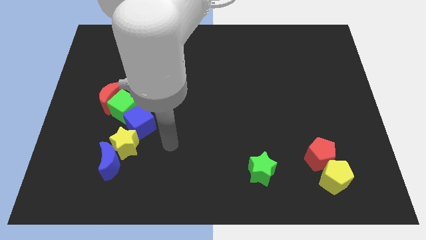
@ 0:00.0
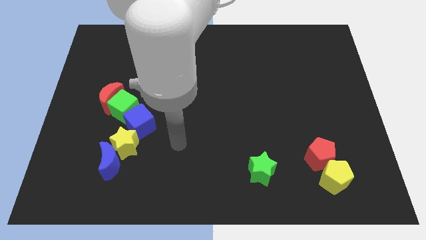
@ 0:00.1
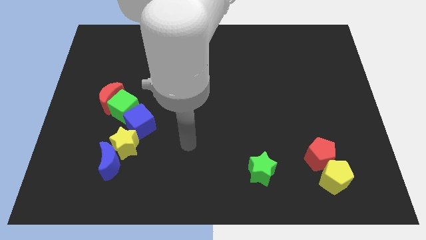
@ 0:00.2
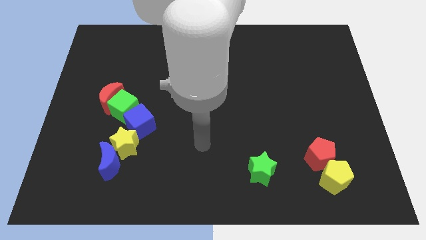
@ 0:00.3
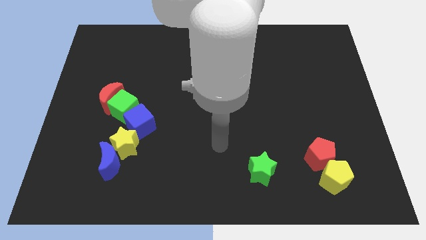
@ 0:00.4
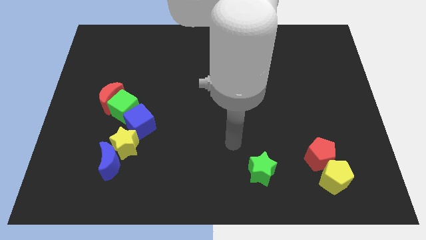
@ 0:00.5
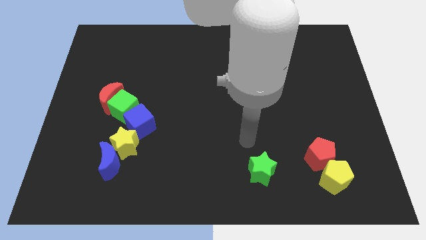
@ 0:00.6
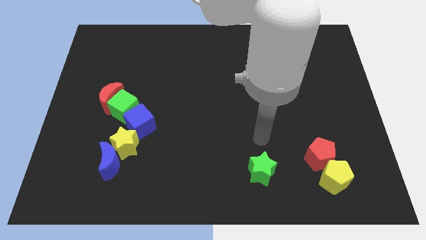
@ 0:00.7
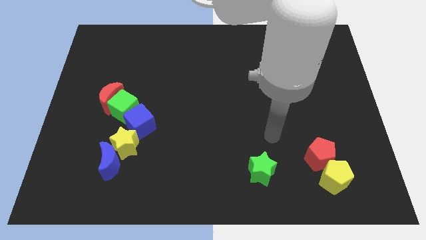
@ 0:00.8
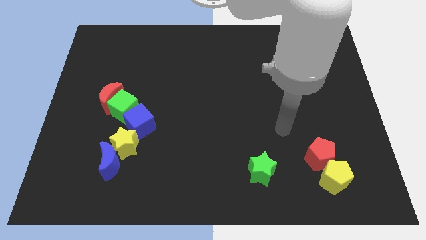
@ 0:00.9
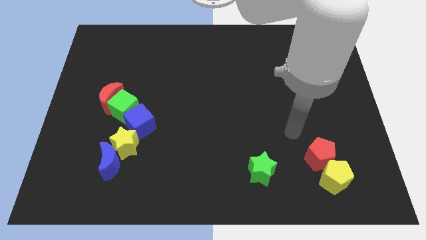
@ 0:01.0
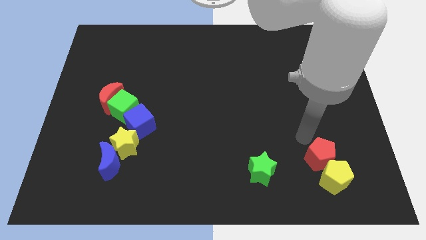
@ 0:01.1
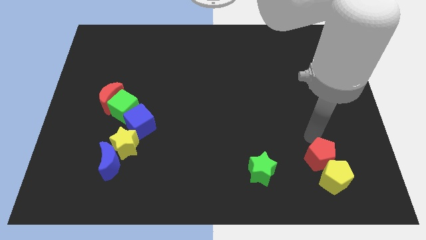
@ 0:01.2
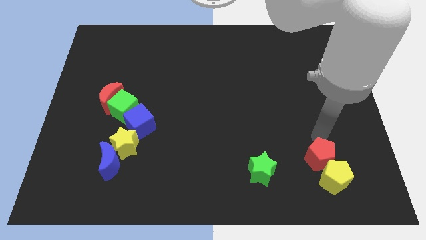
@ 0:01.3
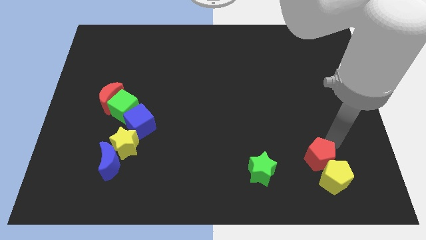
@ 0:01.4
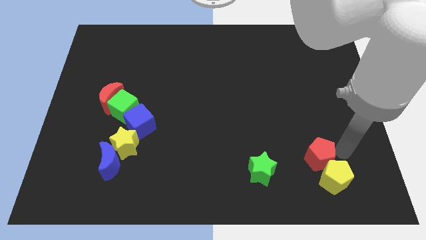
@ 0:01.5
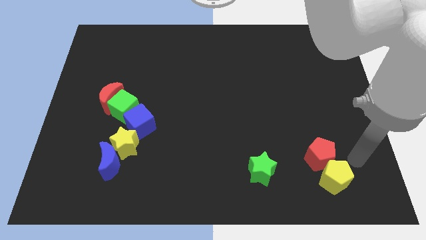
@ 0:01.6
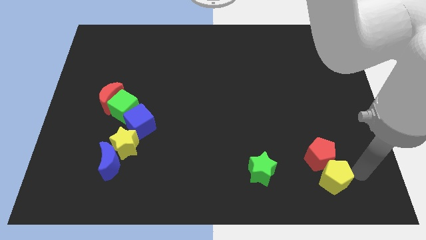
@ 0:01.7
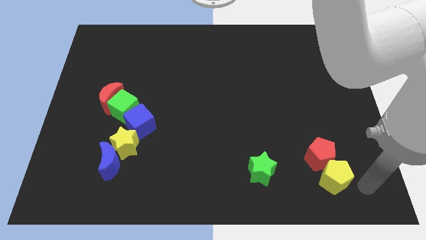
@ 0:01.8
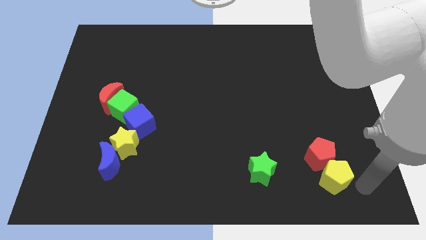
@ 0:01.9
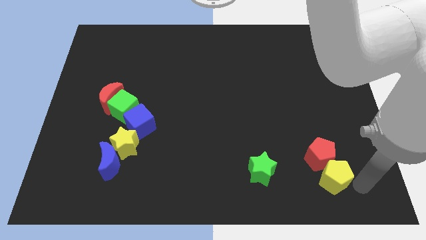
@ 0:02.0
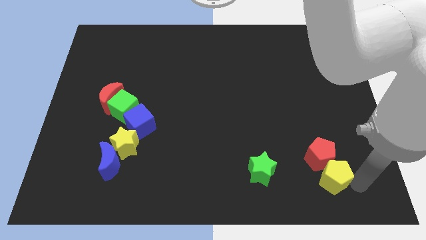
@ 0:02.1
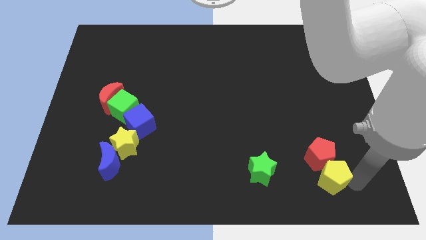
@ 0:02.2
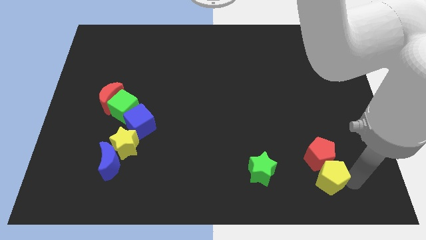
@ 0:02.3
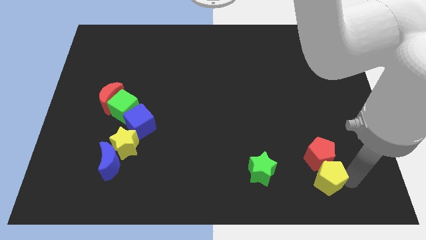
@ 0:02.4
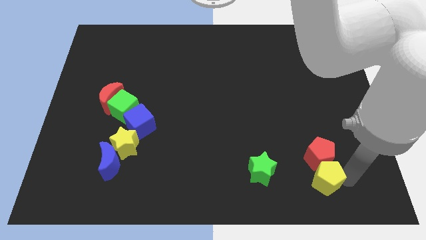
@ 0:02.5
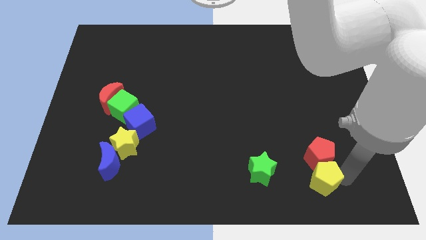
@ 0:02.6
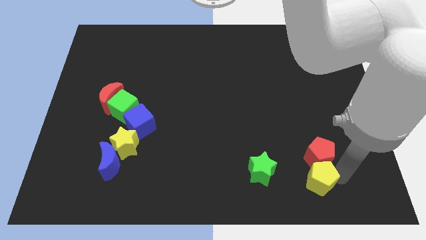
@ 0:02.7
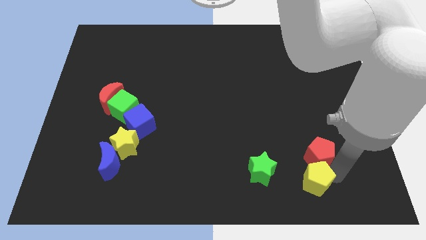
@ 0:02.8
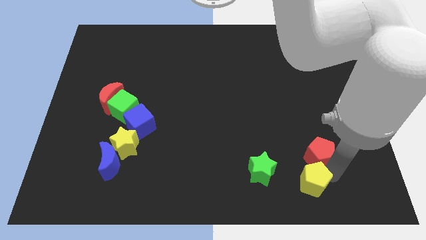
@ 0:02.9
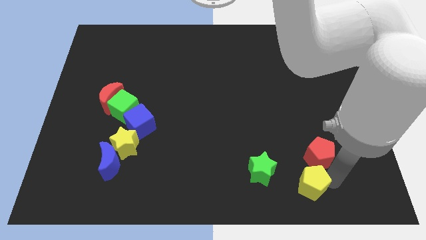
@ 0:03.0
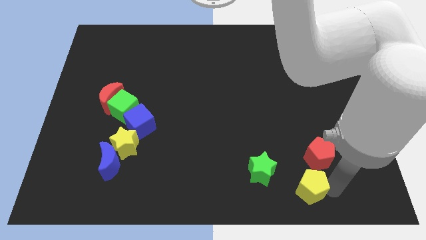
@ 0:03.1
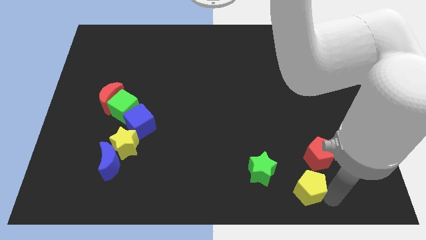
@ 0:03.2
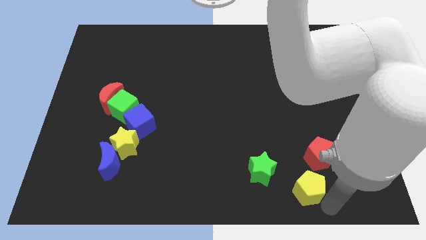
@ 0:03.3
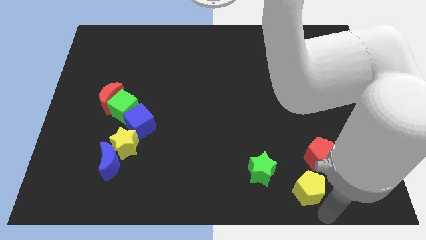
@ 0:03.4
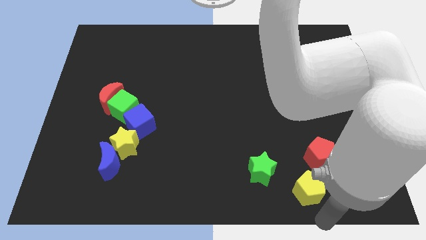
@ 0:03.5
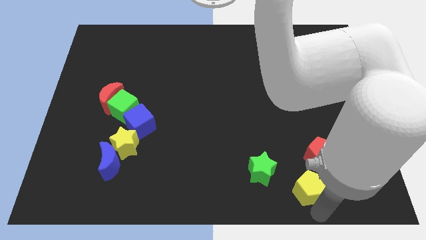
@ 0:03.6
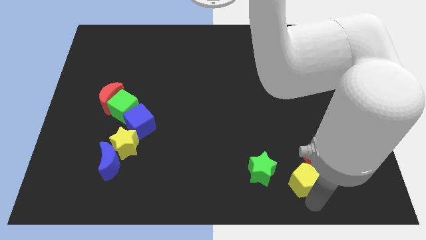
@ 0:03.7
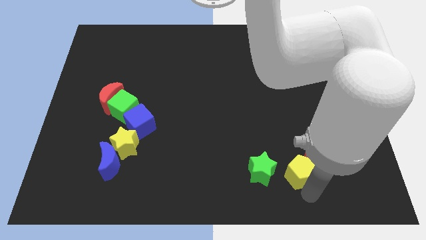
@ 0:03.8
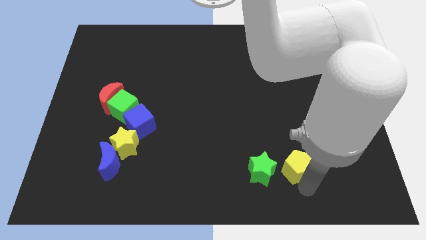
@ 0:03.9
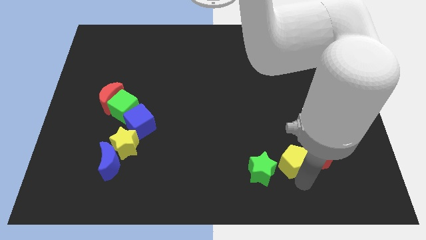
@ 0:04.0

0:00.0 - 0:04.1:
slide the yellow pentagon somewhat upwards and to the left

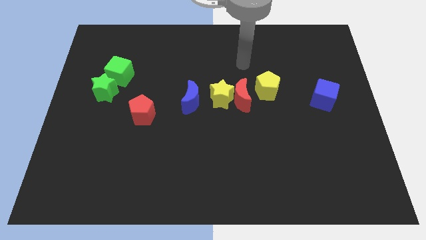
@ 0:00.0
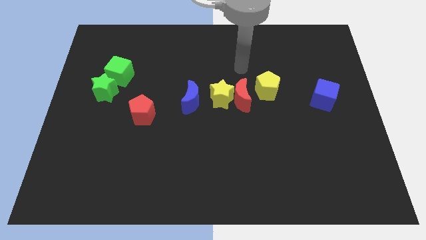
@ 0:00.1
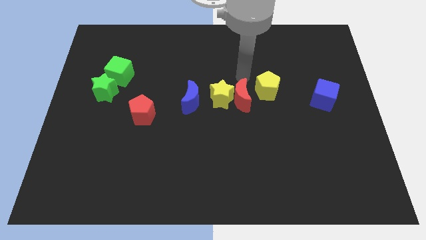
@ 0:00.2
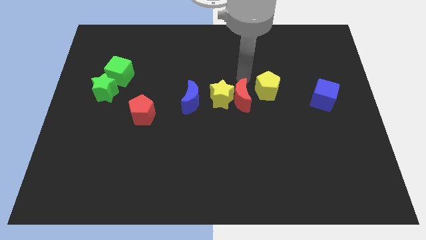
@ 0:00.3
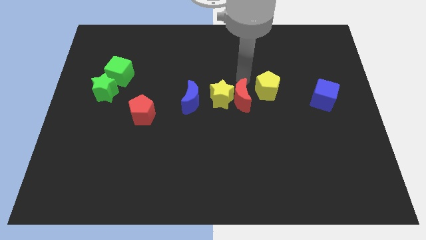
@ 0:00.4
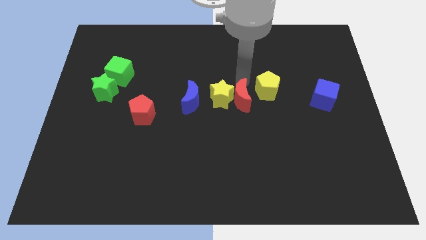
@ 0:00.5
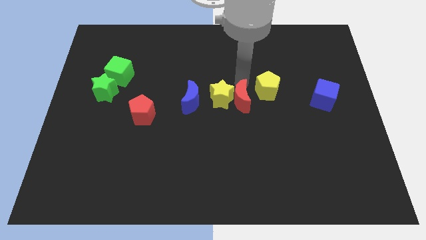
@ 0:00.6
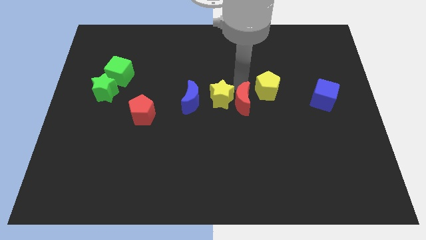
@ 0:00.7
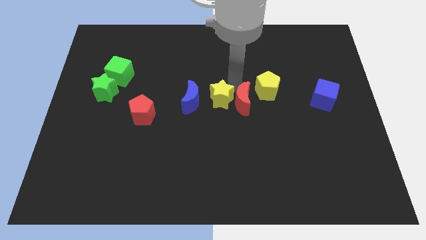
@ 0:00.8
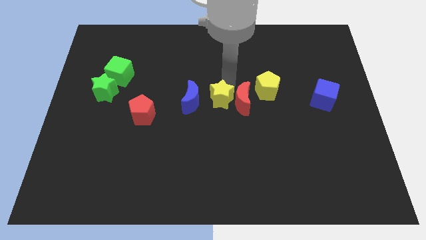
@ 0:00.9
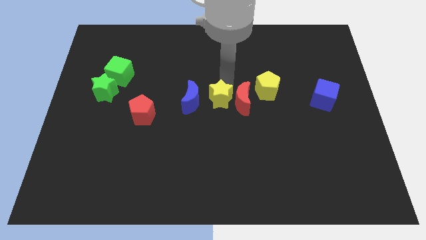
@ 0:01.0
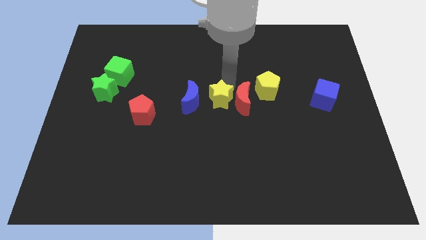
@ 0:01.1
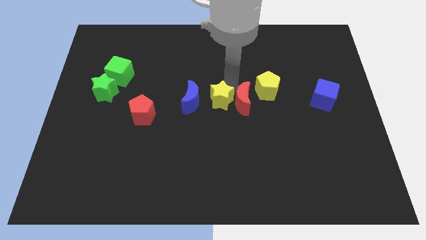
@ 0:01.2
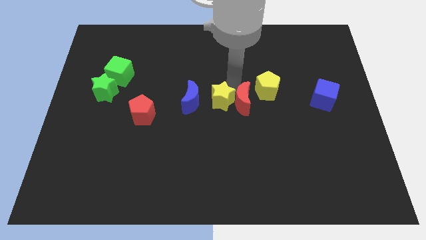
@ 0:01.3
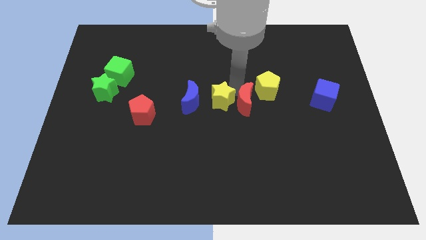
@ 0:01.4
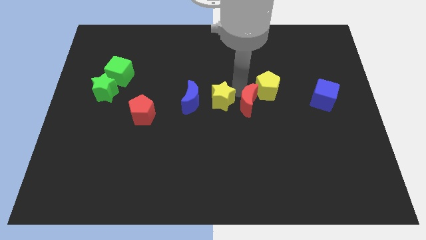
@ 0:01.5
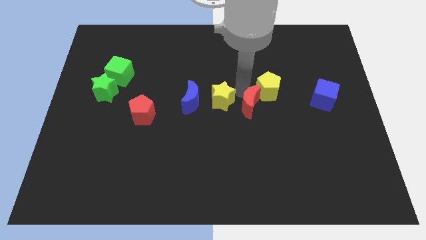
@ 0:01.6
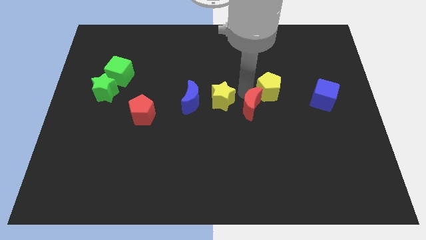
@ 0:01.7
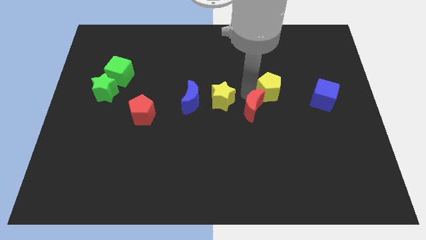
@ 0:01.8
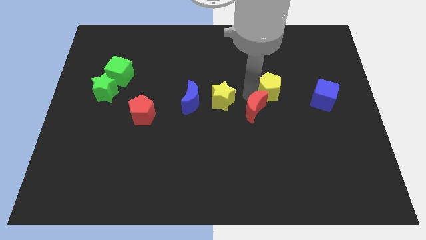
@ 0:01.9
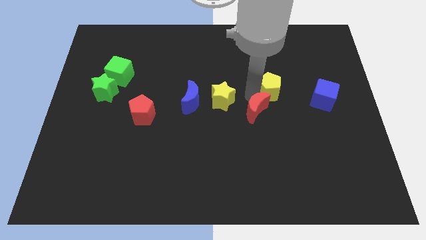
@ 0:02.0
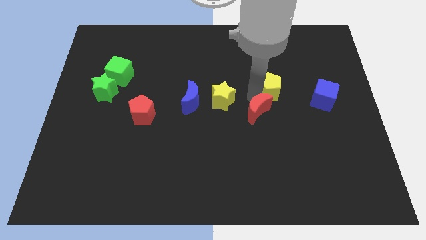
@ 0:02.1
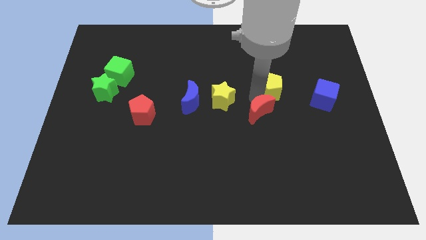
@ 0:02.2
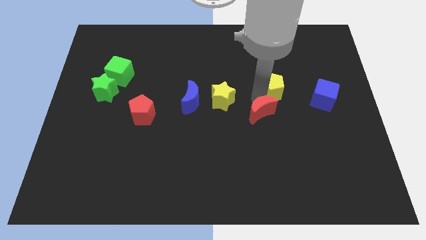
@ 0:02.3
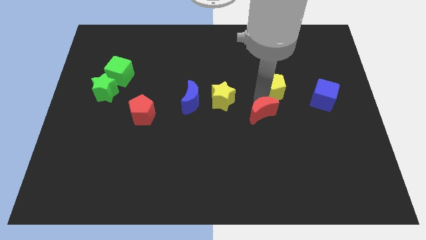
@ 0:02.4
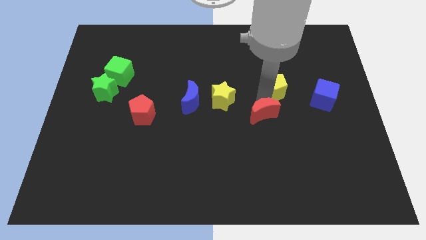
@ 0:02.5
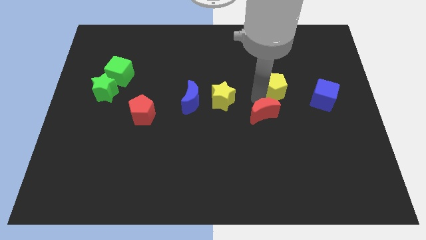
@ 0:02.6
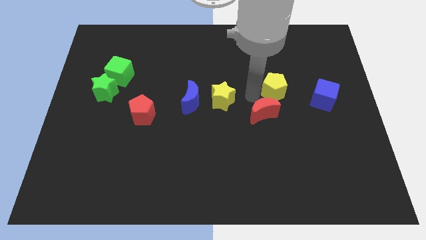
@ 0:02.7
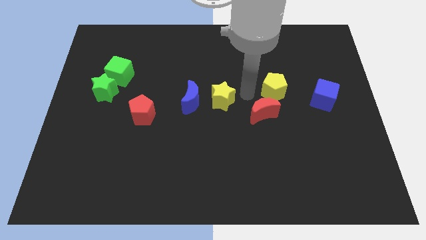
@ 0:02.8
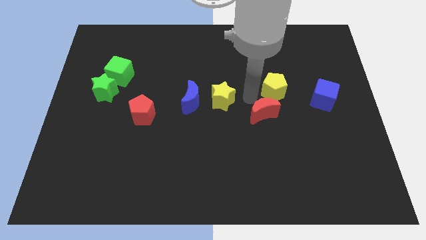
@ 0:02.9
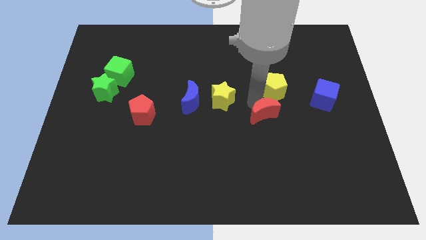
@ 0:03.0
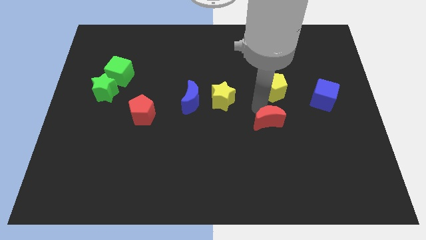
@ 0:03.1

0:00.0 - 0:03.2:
push the red moon a little downwards and to the right diagonally

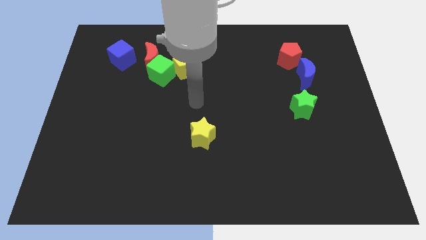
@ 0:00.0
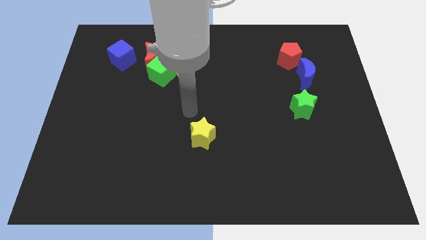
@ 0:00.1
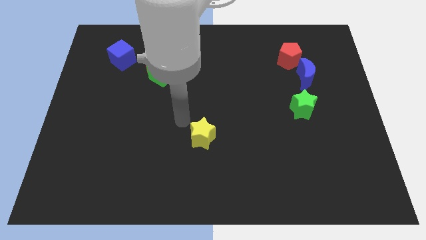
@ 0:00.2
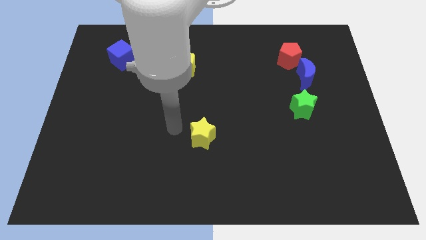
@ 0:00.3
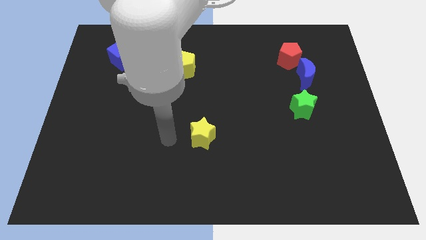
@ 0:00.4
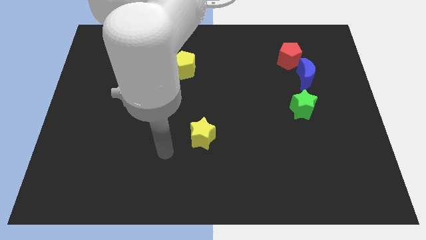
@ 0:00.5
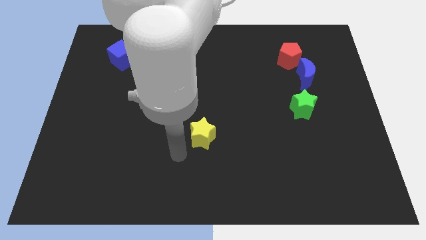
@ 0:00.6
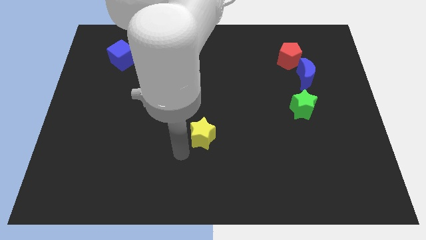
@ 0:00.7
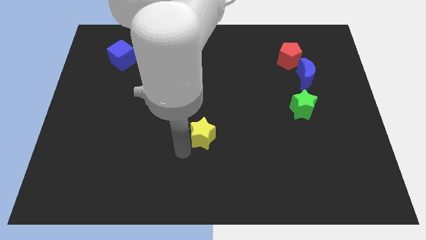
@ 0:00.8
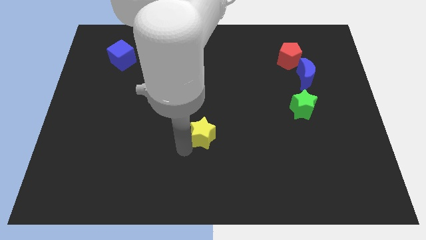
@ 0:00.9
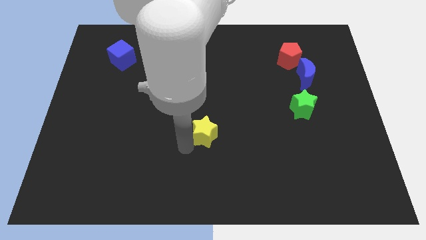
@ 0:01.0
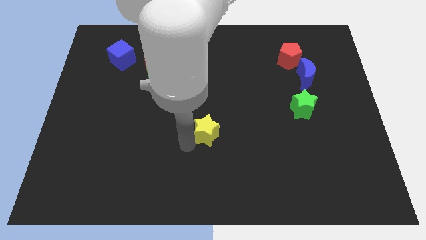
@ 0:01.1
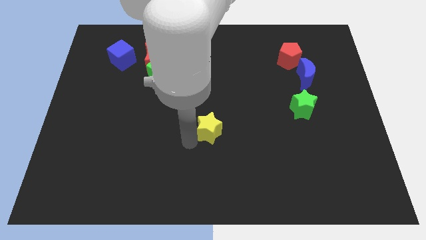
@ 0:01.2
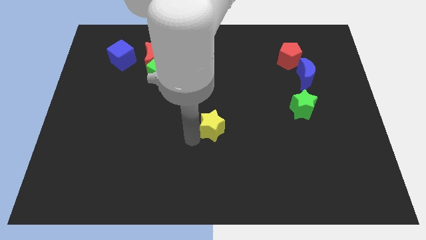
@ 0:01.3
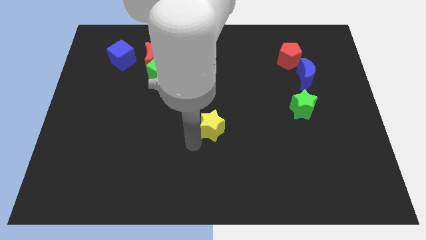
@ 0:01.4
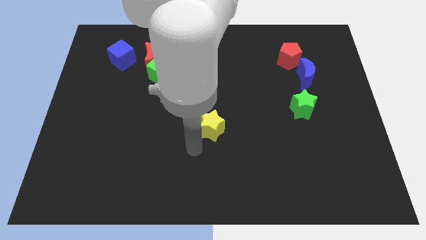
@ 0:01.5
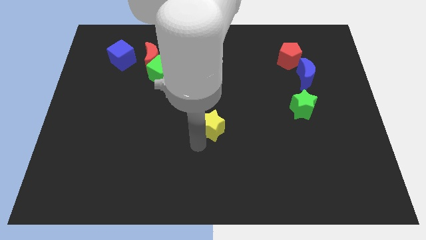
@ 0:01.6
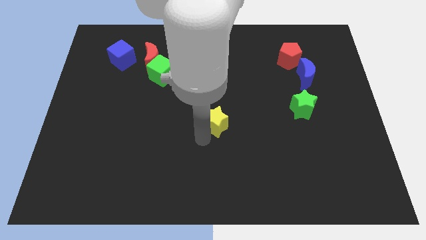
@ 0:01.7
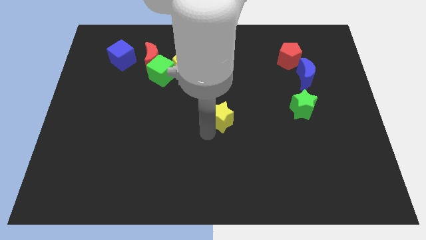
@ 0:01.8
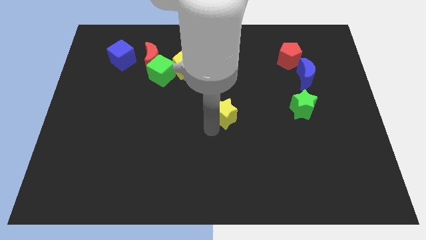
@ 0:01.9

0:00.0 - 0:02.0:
slightly push the yellow star up and to the right diagonally
